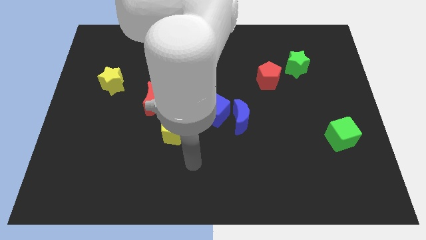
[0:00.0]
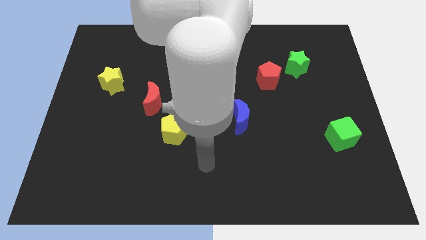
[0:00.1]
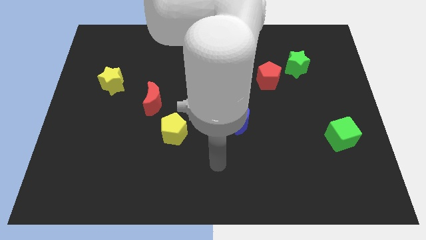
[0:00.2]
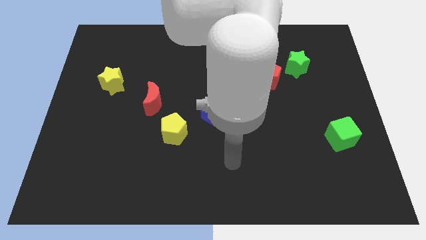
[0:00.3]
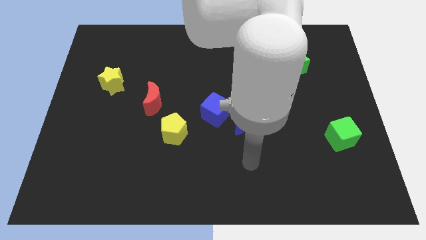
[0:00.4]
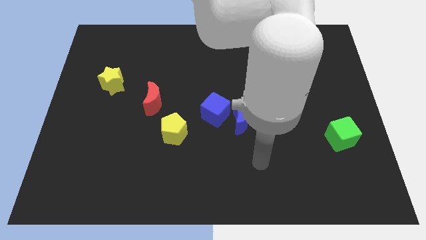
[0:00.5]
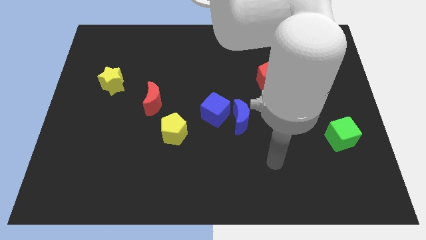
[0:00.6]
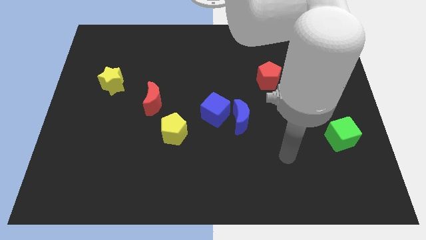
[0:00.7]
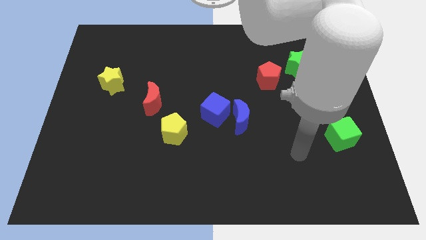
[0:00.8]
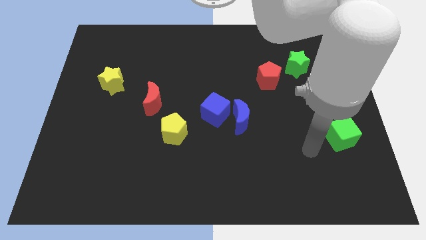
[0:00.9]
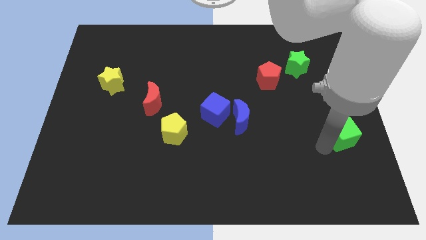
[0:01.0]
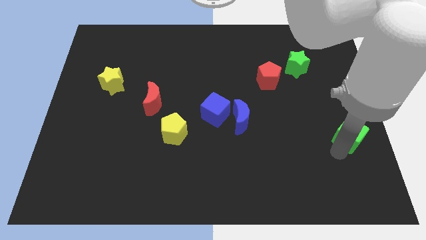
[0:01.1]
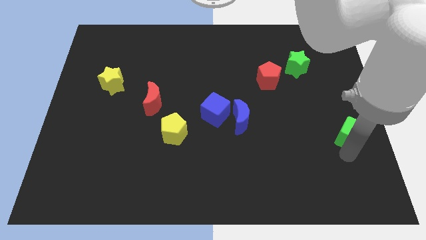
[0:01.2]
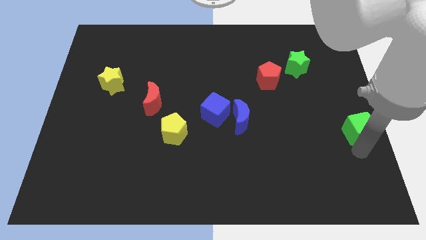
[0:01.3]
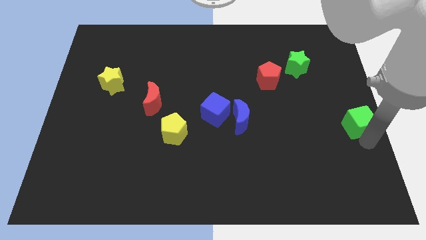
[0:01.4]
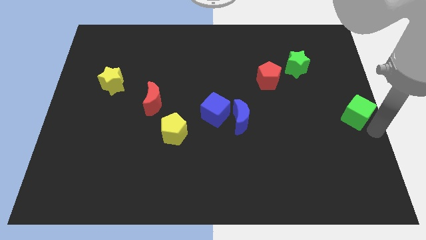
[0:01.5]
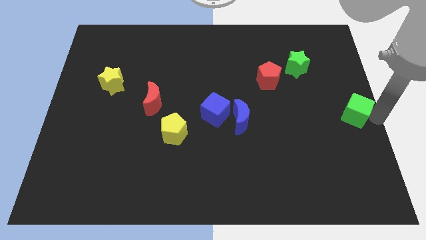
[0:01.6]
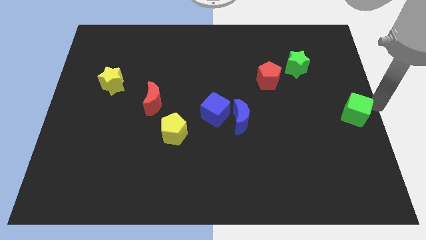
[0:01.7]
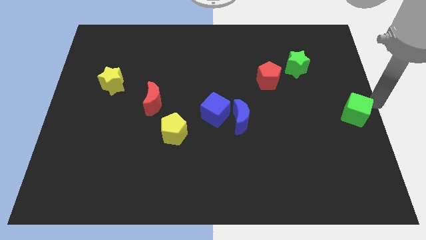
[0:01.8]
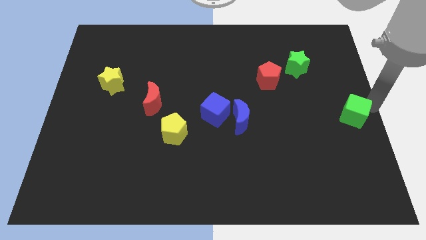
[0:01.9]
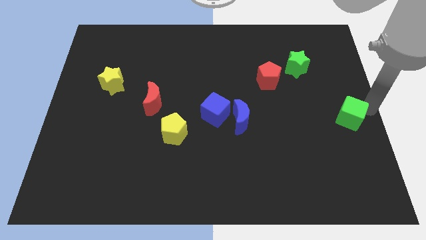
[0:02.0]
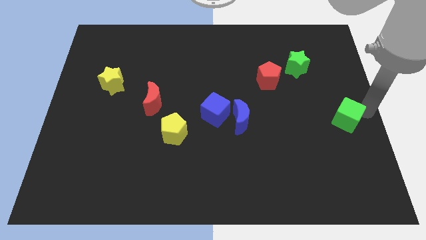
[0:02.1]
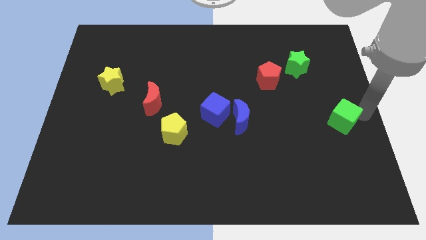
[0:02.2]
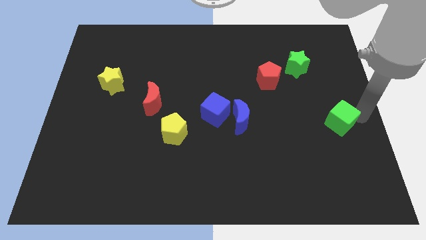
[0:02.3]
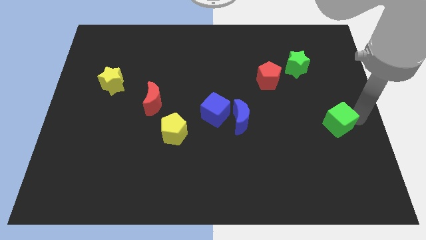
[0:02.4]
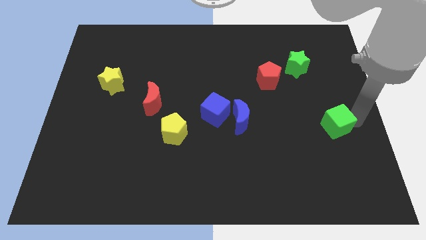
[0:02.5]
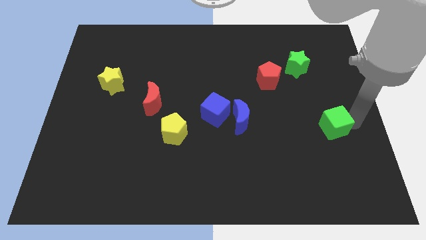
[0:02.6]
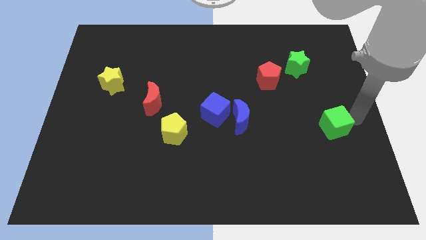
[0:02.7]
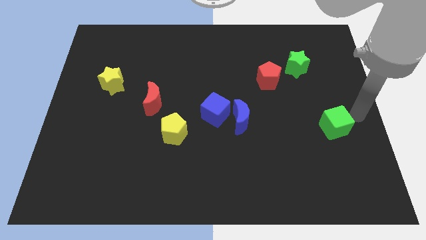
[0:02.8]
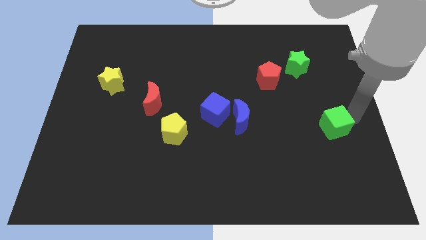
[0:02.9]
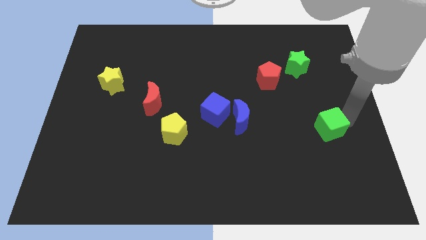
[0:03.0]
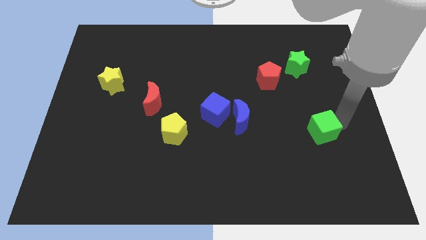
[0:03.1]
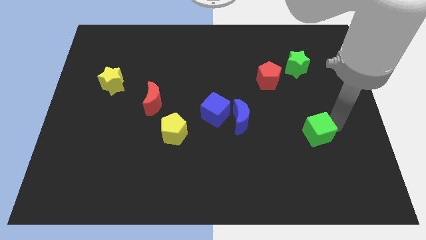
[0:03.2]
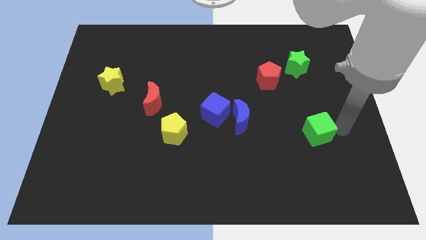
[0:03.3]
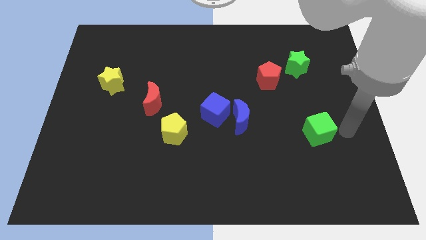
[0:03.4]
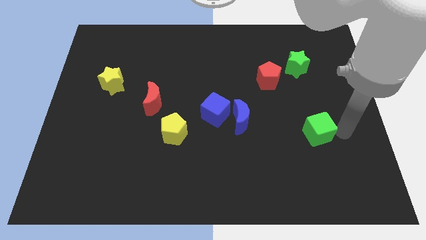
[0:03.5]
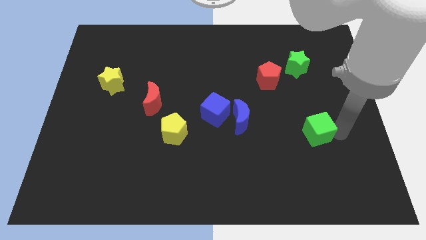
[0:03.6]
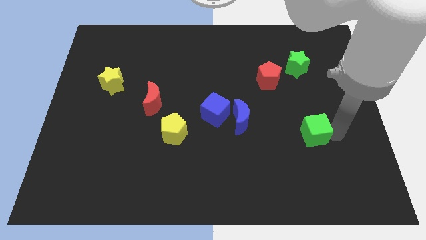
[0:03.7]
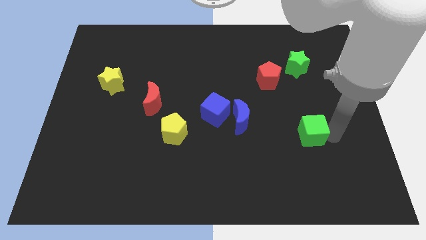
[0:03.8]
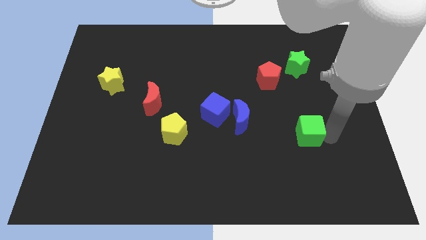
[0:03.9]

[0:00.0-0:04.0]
move the green cube a bit to the left

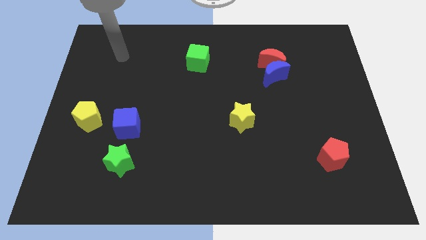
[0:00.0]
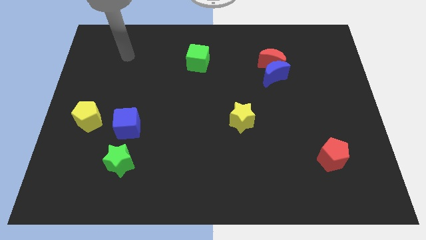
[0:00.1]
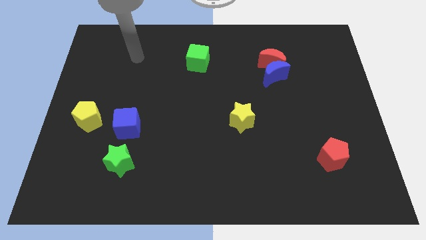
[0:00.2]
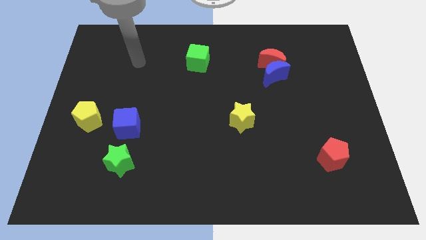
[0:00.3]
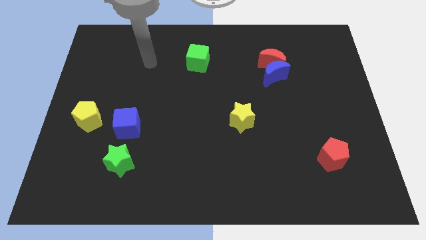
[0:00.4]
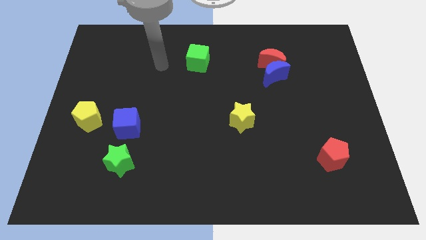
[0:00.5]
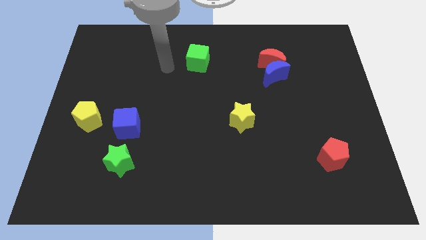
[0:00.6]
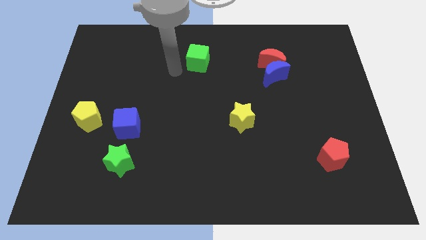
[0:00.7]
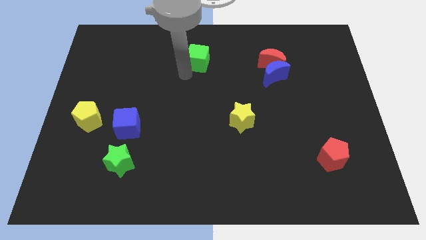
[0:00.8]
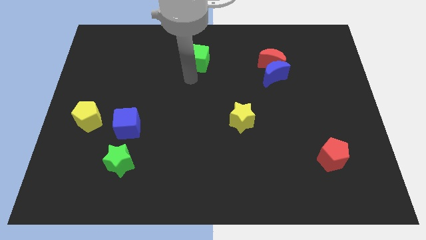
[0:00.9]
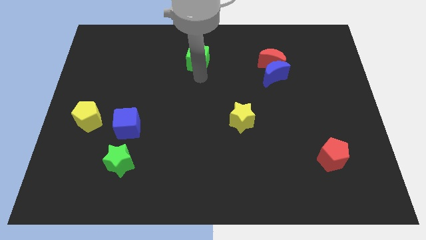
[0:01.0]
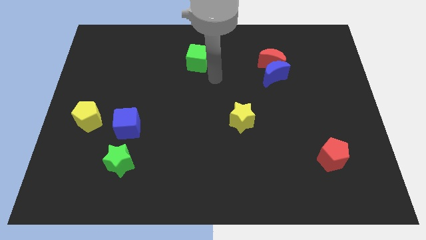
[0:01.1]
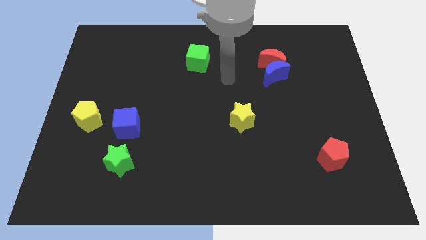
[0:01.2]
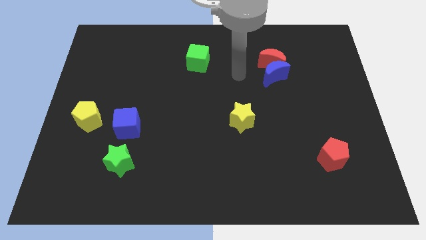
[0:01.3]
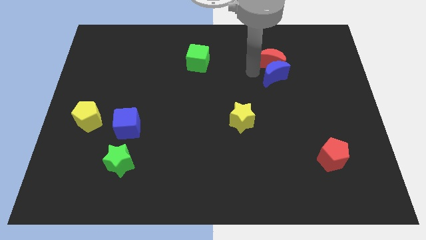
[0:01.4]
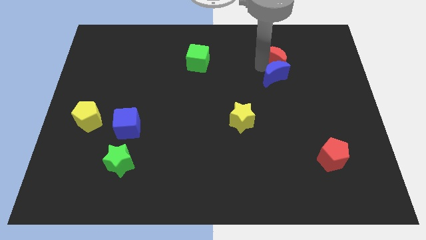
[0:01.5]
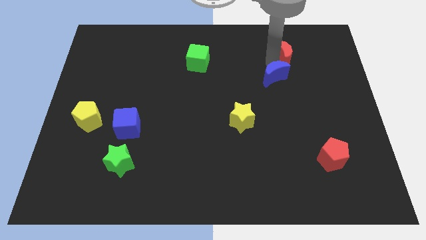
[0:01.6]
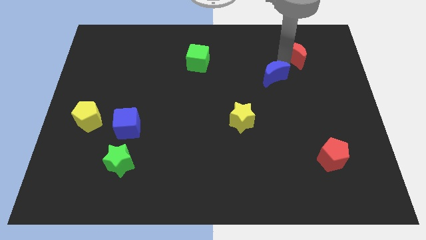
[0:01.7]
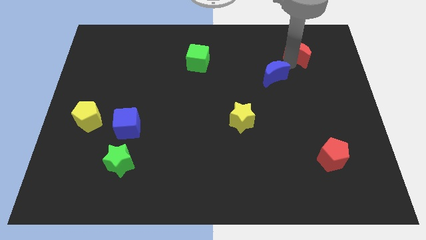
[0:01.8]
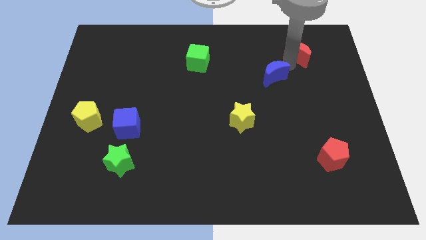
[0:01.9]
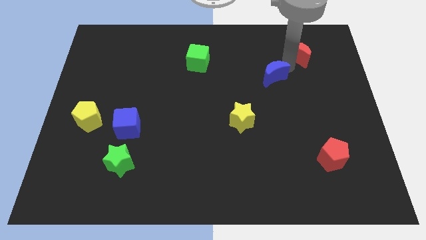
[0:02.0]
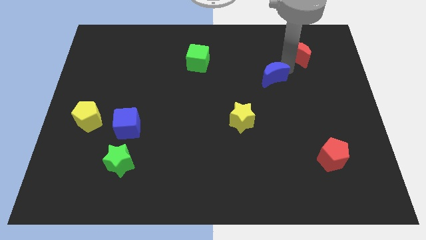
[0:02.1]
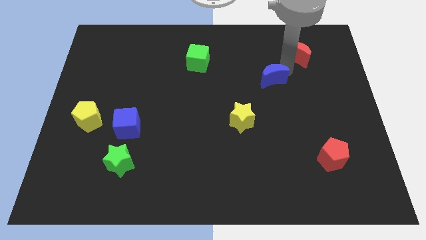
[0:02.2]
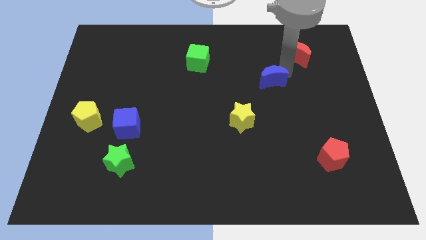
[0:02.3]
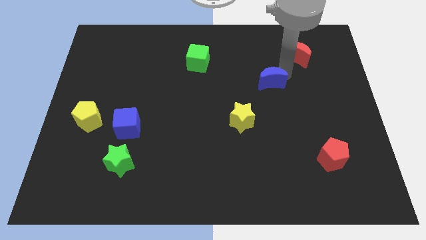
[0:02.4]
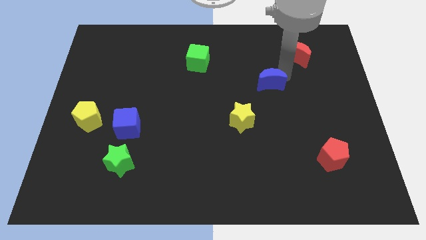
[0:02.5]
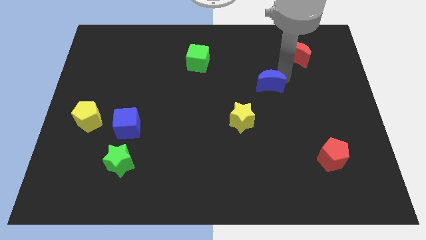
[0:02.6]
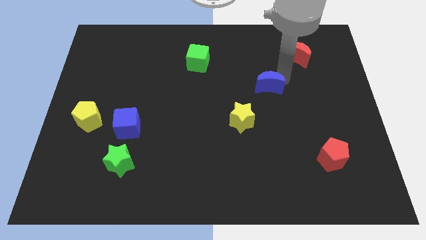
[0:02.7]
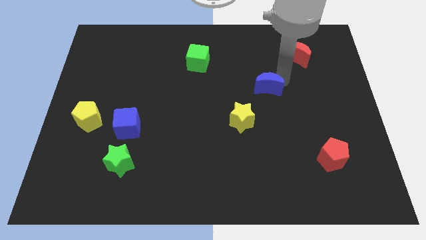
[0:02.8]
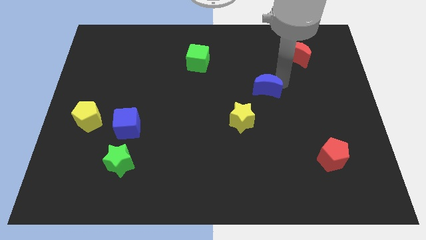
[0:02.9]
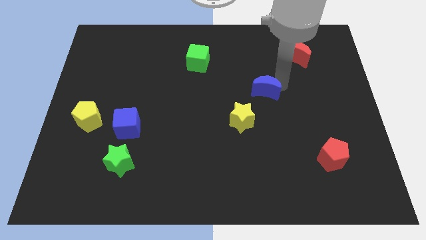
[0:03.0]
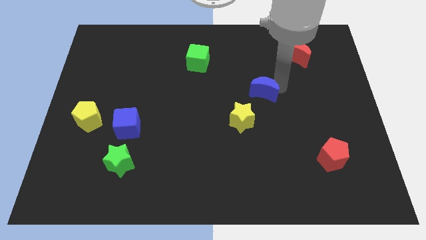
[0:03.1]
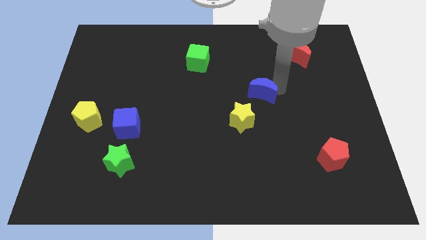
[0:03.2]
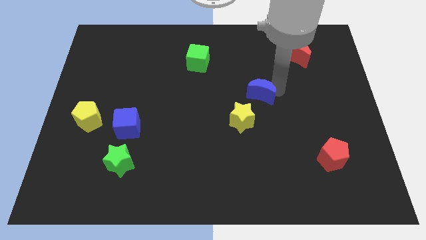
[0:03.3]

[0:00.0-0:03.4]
push the blue moon a little bit diagonally down and to the left

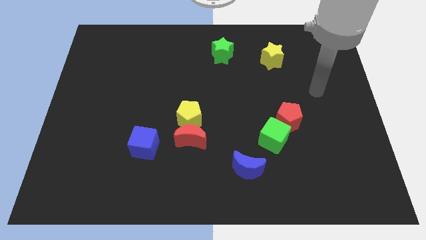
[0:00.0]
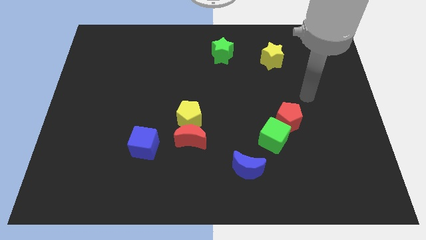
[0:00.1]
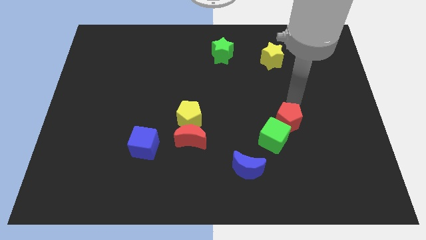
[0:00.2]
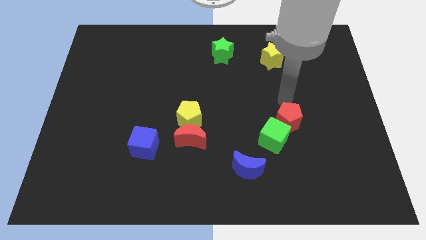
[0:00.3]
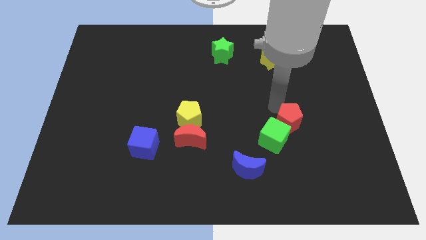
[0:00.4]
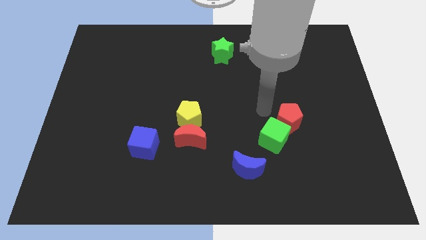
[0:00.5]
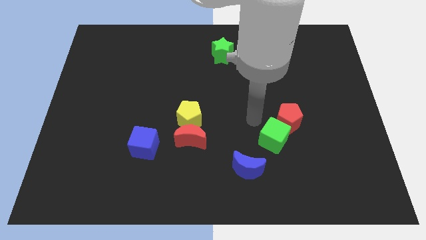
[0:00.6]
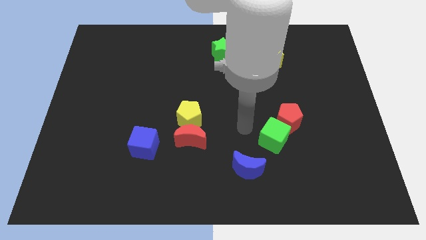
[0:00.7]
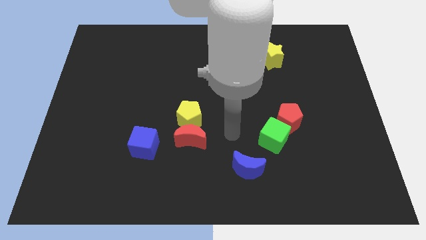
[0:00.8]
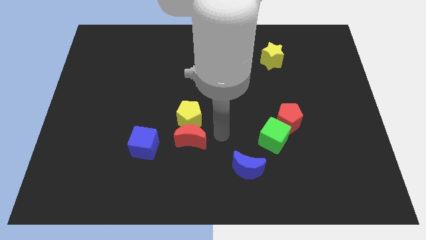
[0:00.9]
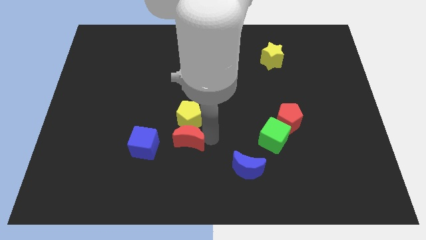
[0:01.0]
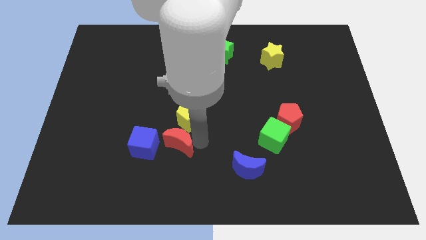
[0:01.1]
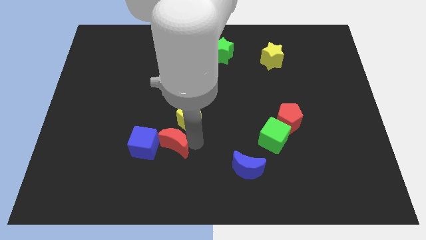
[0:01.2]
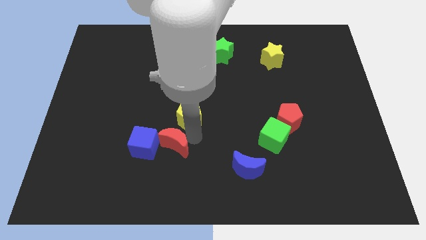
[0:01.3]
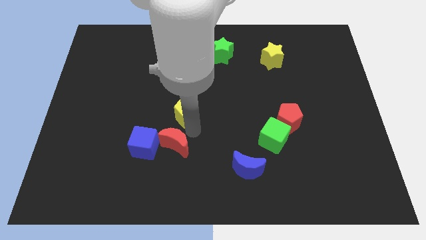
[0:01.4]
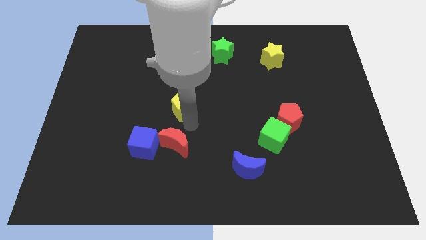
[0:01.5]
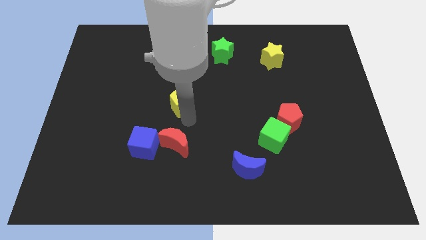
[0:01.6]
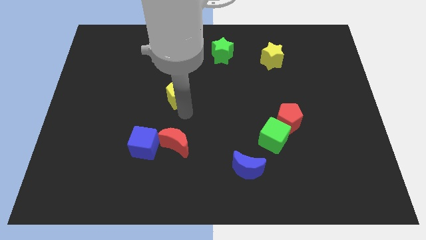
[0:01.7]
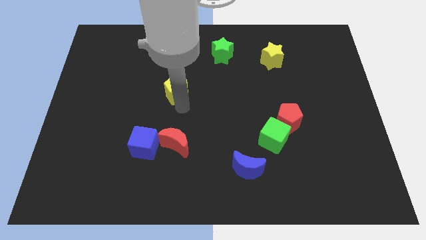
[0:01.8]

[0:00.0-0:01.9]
slightly move the yellow pentagon up
